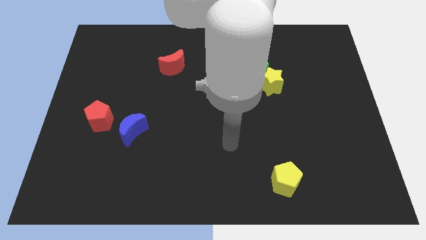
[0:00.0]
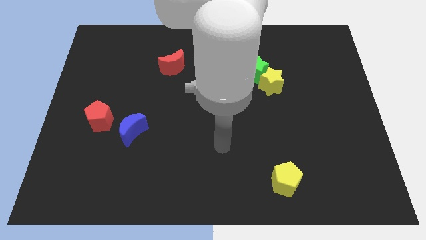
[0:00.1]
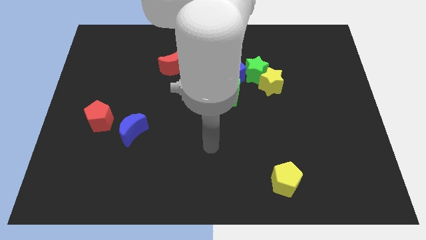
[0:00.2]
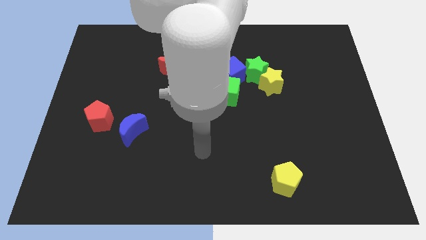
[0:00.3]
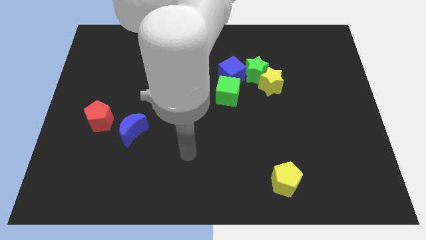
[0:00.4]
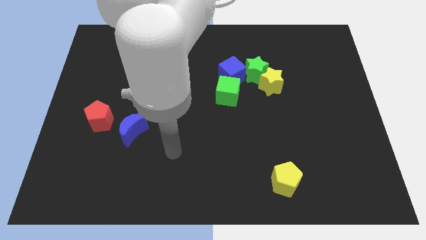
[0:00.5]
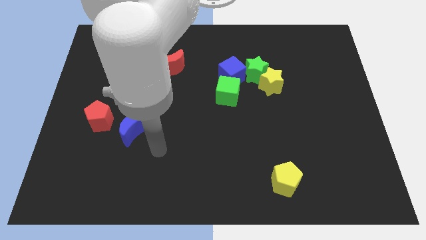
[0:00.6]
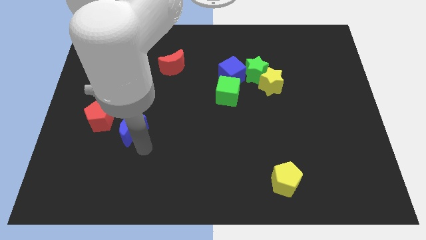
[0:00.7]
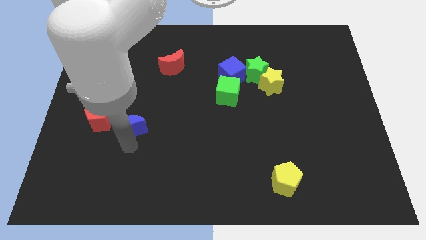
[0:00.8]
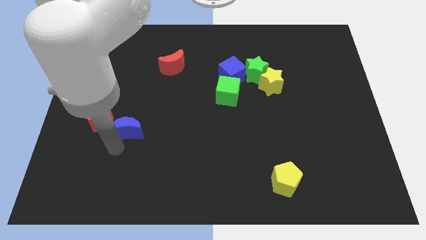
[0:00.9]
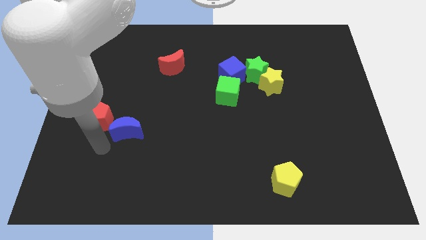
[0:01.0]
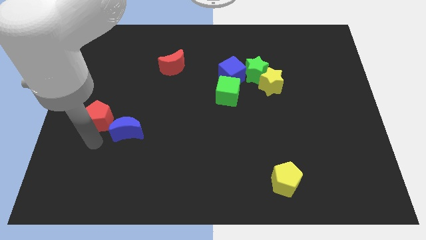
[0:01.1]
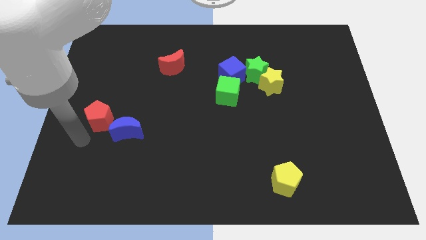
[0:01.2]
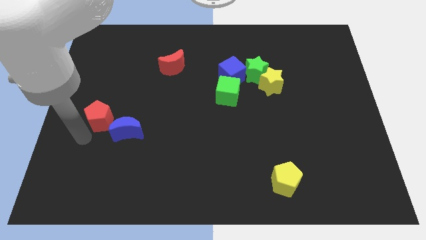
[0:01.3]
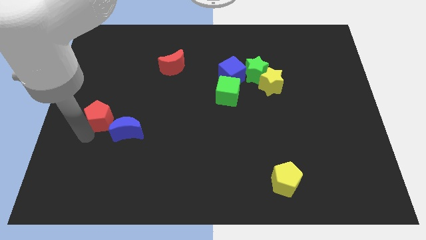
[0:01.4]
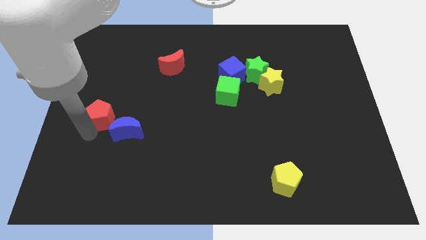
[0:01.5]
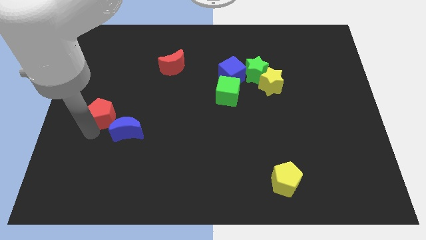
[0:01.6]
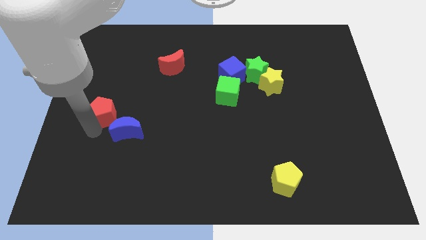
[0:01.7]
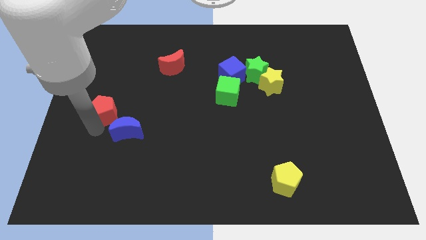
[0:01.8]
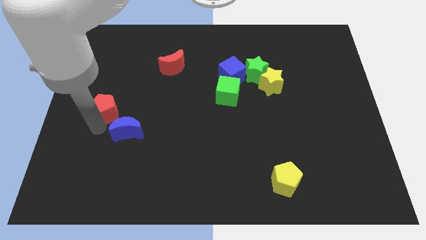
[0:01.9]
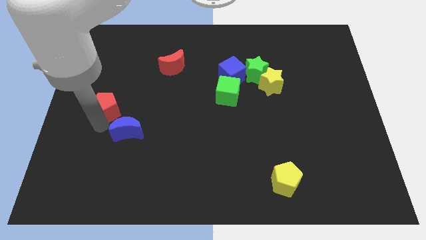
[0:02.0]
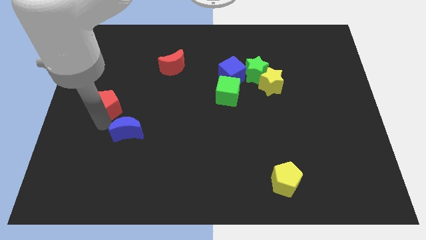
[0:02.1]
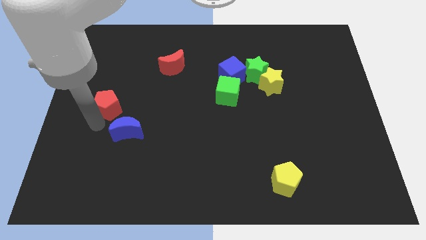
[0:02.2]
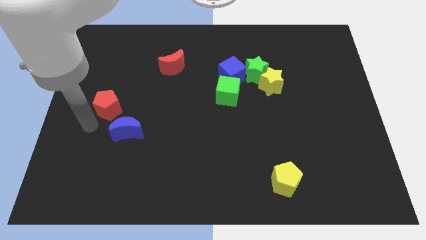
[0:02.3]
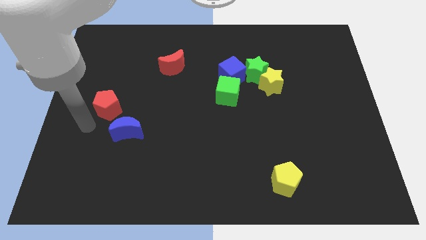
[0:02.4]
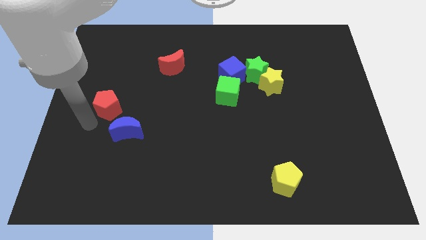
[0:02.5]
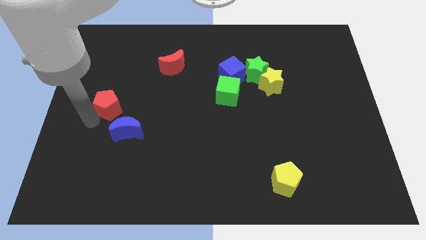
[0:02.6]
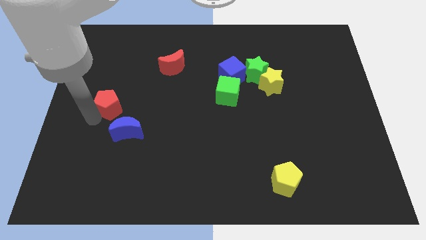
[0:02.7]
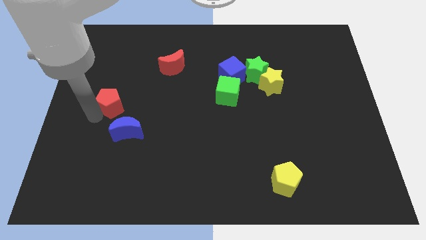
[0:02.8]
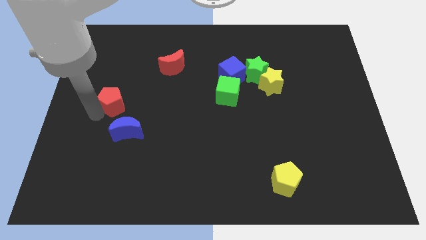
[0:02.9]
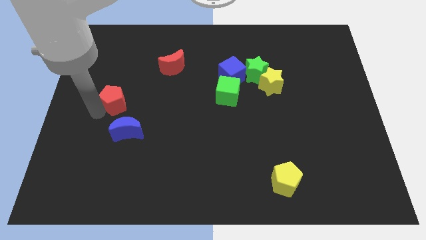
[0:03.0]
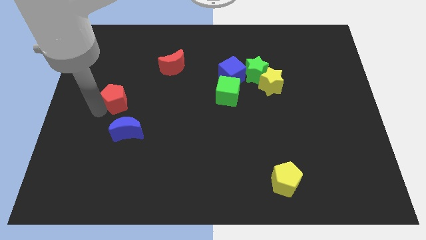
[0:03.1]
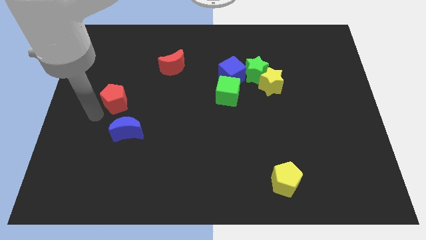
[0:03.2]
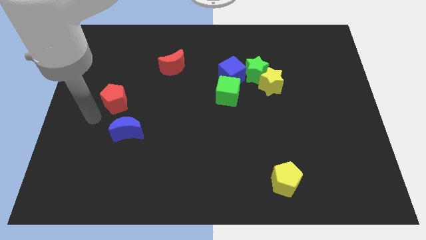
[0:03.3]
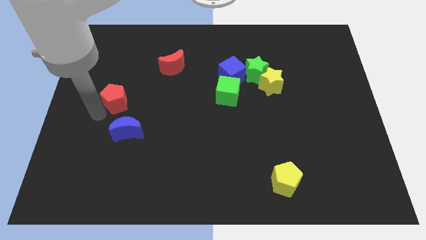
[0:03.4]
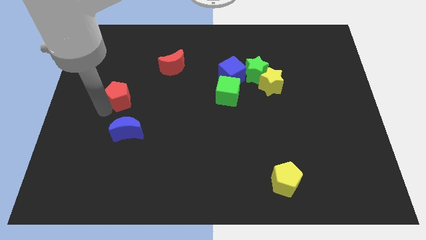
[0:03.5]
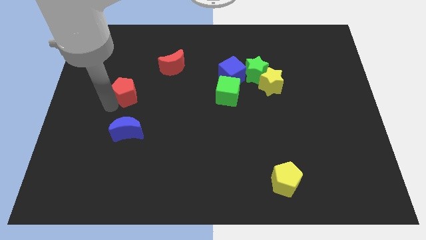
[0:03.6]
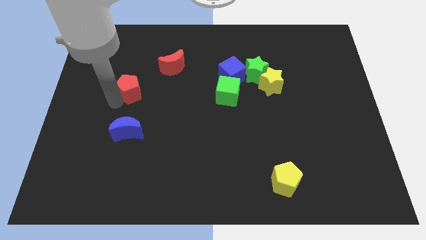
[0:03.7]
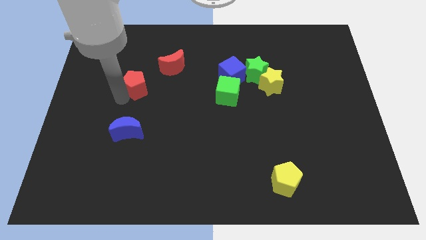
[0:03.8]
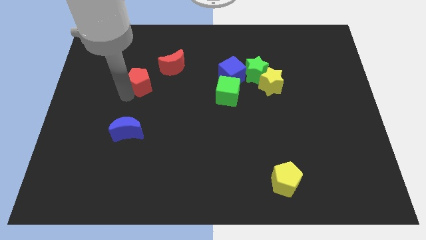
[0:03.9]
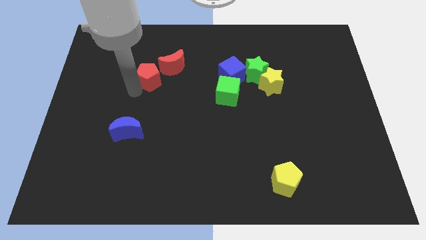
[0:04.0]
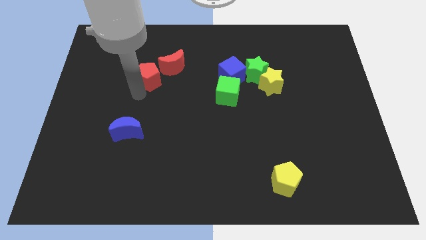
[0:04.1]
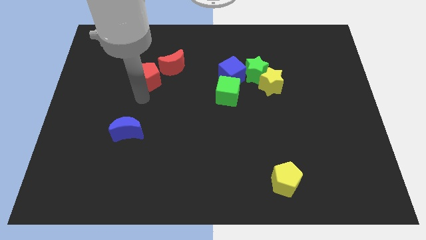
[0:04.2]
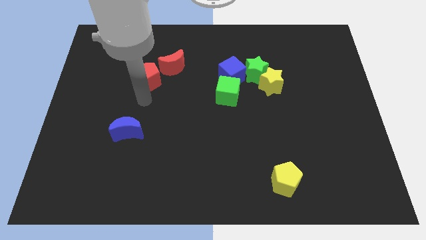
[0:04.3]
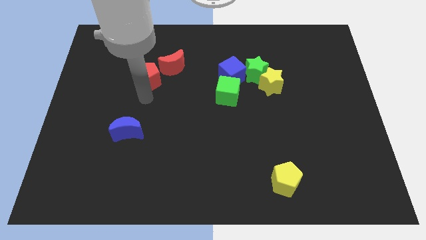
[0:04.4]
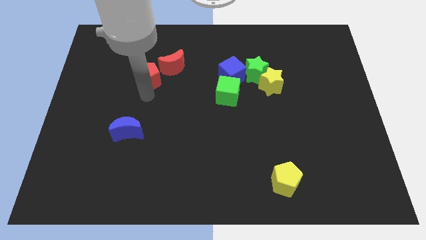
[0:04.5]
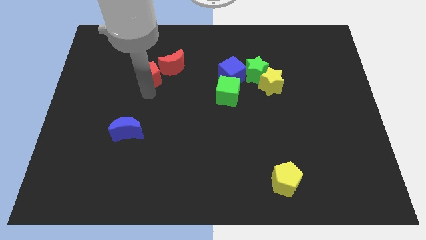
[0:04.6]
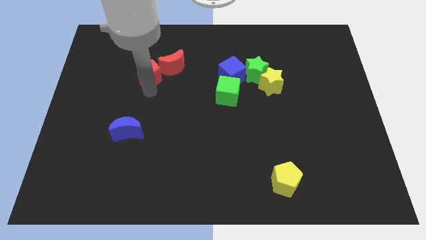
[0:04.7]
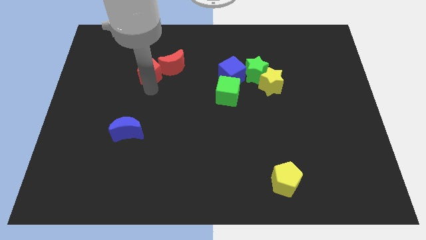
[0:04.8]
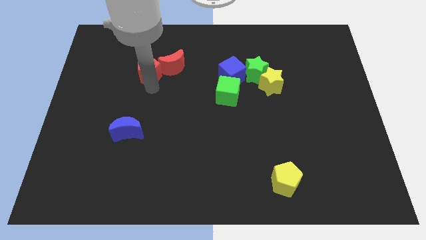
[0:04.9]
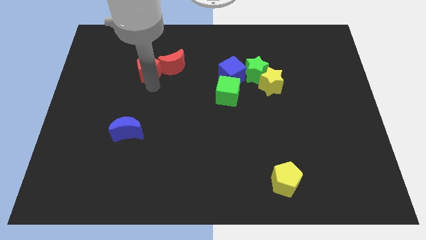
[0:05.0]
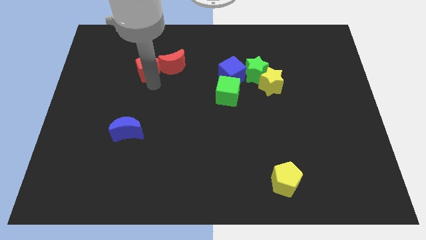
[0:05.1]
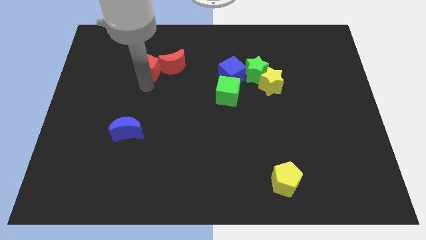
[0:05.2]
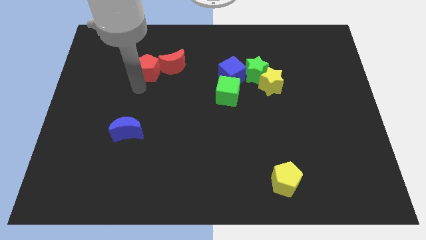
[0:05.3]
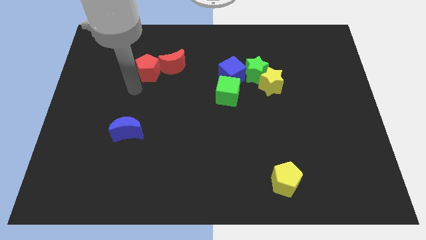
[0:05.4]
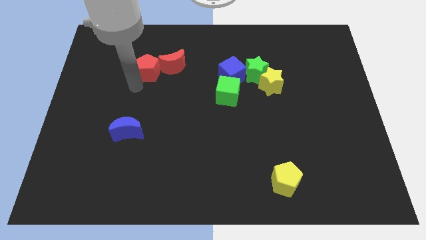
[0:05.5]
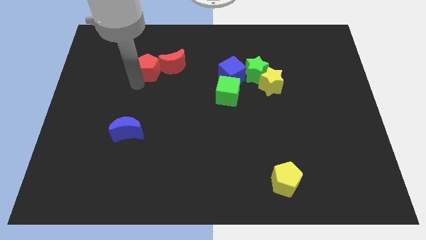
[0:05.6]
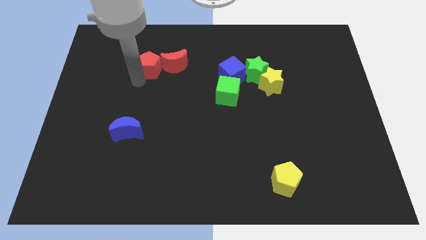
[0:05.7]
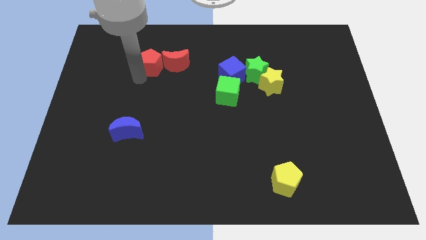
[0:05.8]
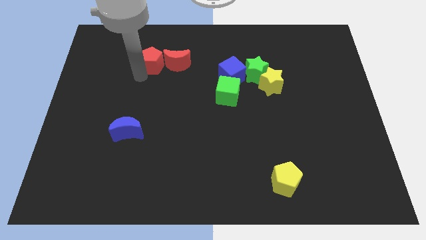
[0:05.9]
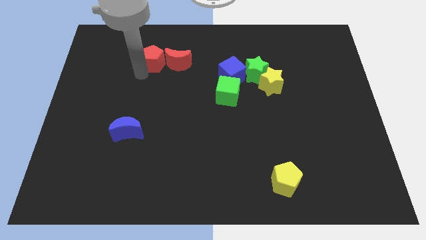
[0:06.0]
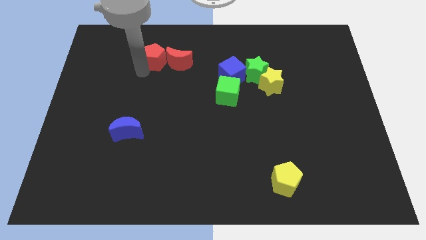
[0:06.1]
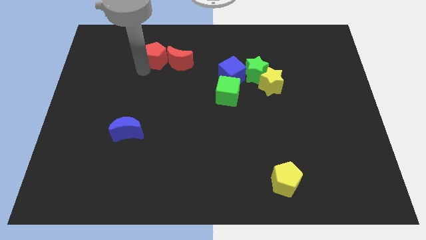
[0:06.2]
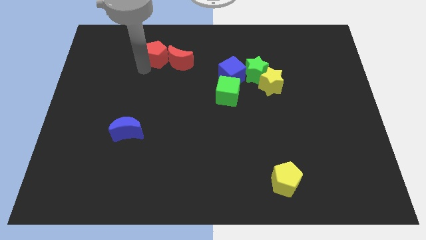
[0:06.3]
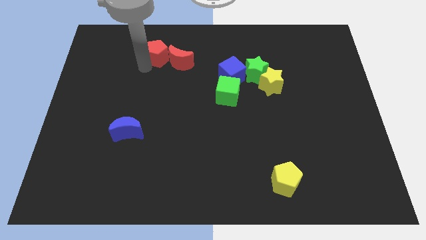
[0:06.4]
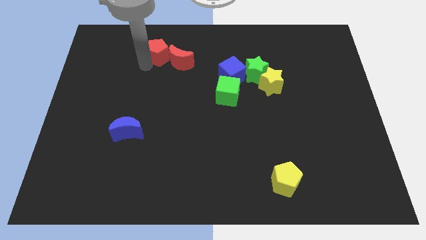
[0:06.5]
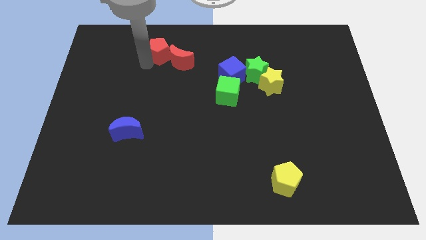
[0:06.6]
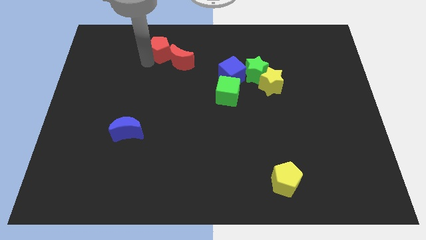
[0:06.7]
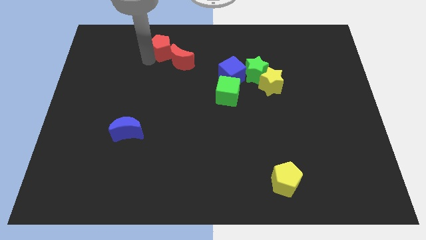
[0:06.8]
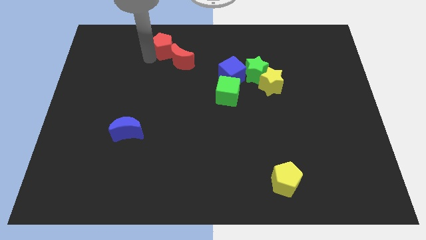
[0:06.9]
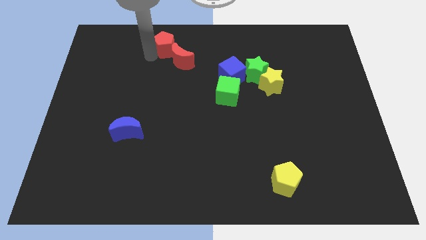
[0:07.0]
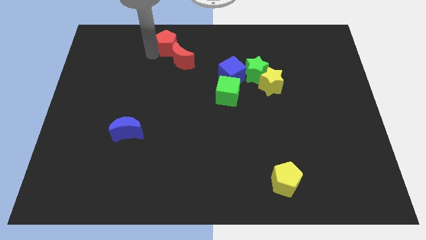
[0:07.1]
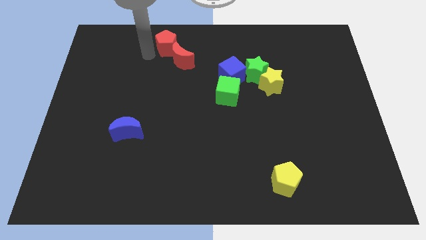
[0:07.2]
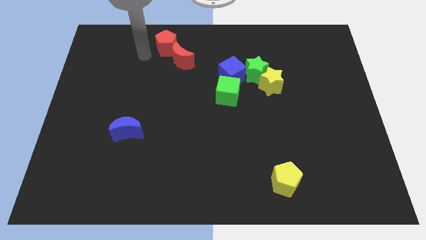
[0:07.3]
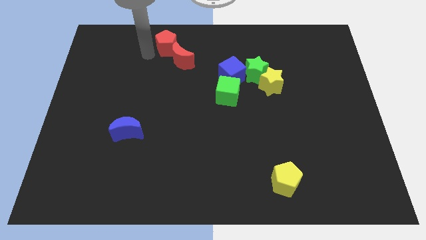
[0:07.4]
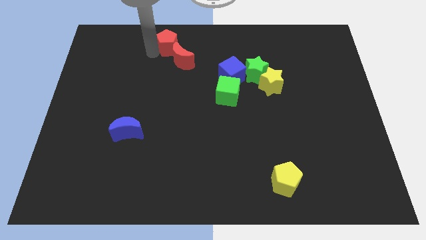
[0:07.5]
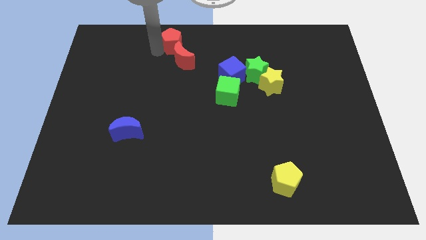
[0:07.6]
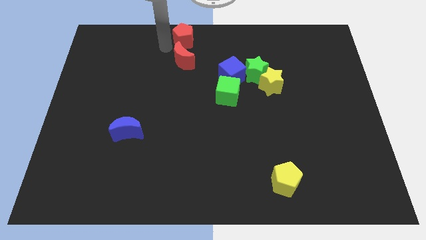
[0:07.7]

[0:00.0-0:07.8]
move the red pentagon to the top side
